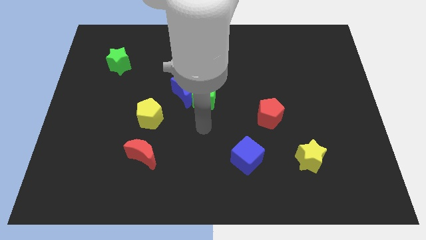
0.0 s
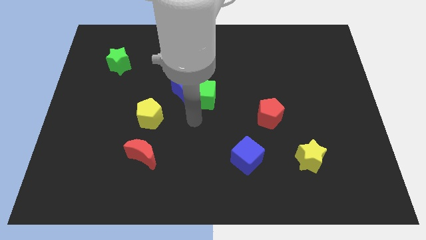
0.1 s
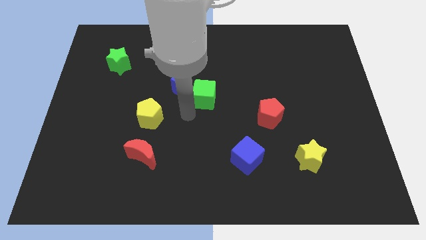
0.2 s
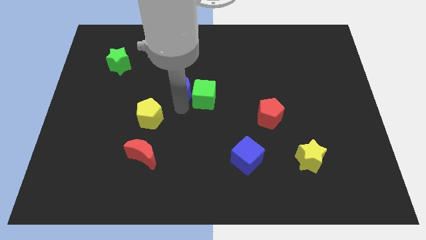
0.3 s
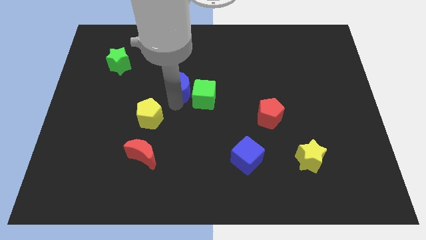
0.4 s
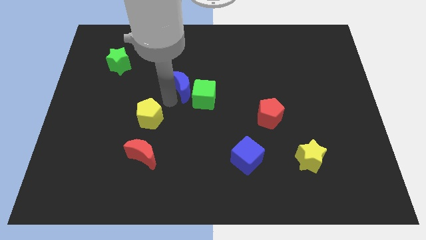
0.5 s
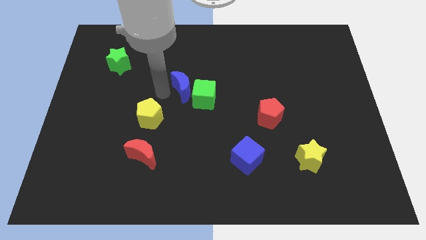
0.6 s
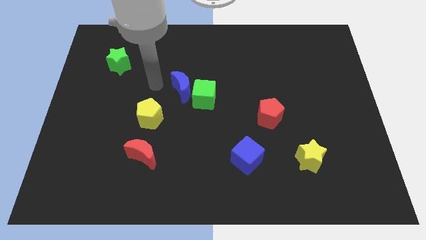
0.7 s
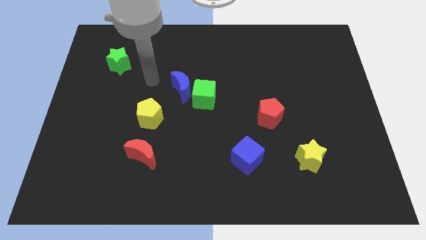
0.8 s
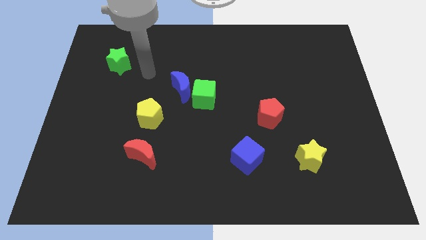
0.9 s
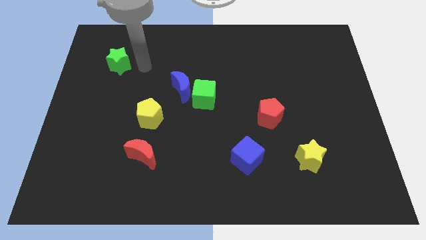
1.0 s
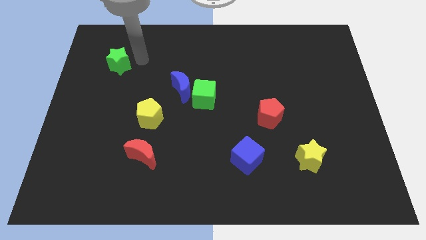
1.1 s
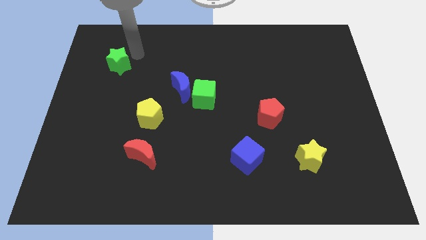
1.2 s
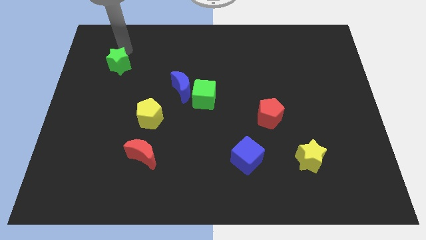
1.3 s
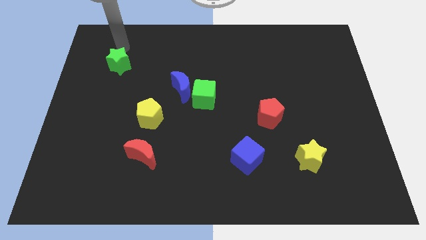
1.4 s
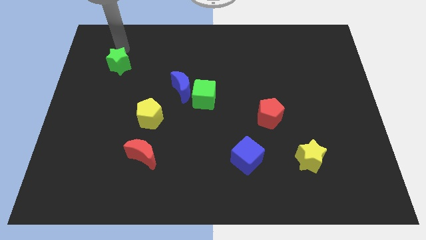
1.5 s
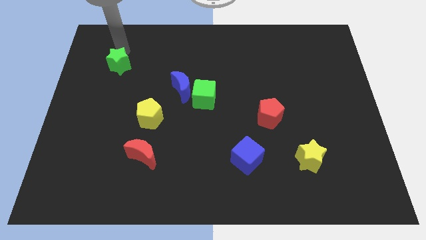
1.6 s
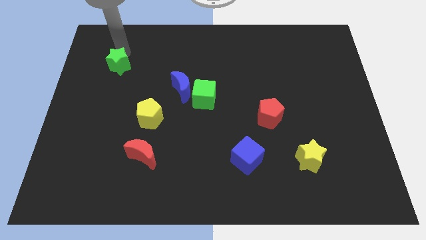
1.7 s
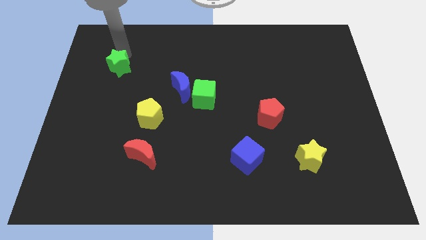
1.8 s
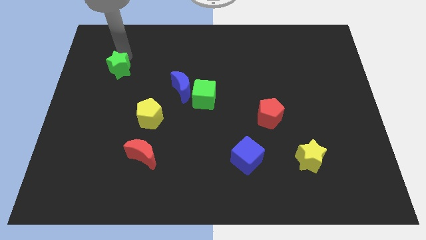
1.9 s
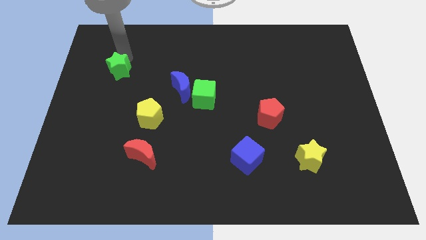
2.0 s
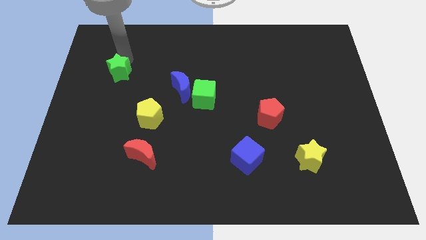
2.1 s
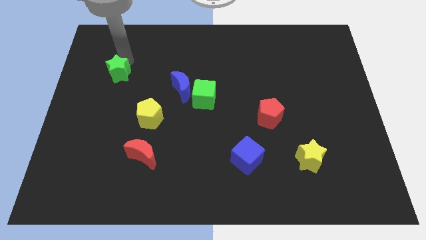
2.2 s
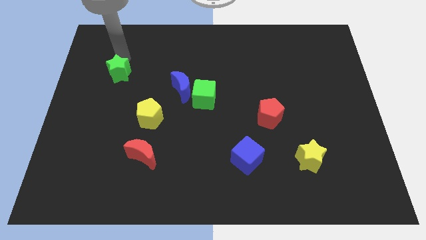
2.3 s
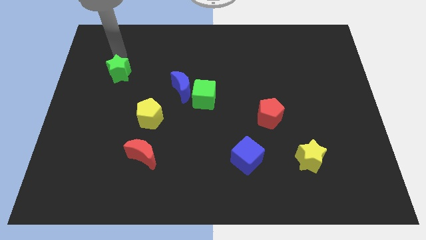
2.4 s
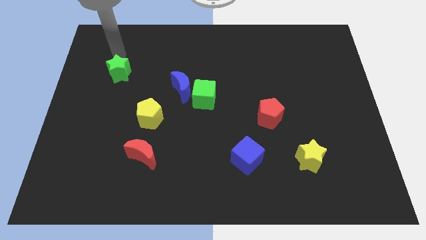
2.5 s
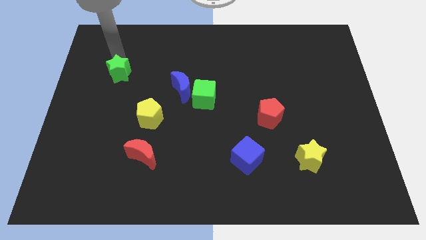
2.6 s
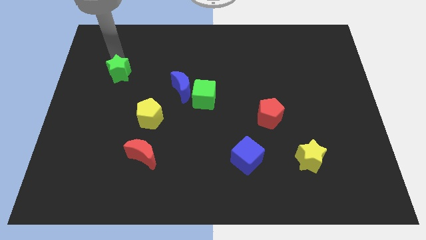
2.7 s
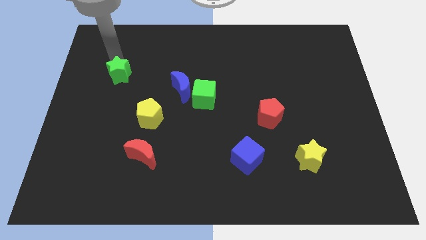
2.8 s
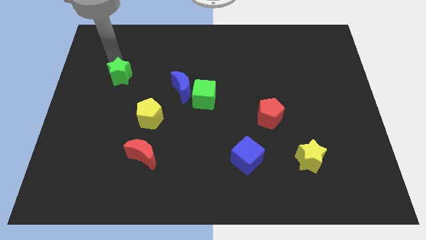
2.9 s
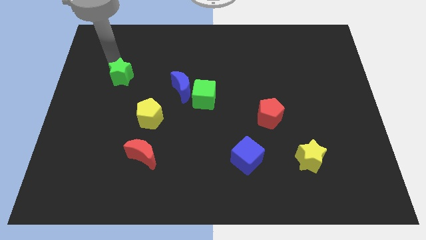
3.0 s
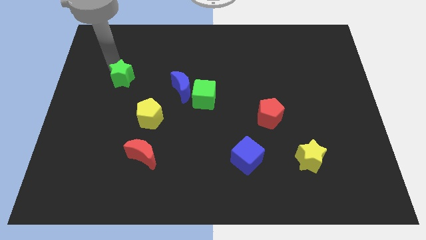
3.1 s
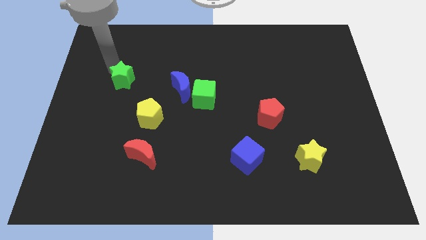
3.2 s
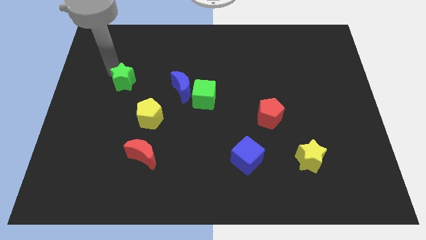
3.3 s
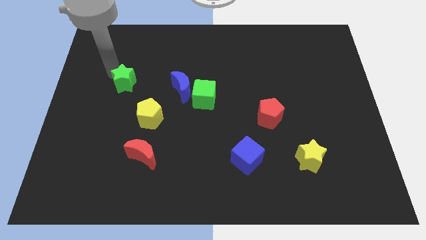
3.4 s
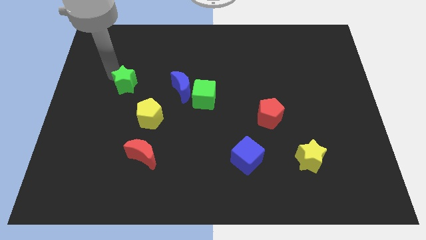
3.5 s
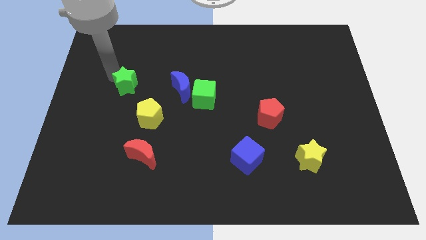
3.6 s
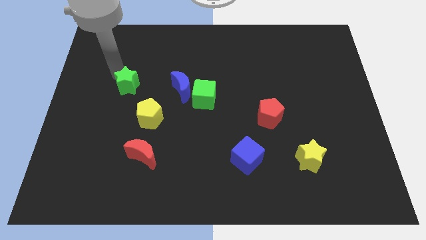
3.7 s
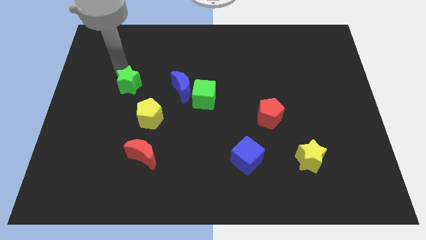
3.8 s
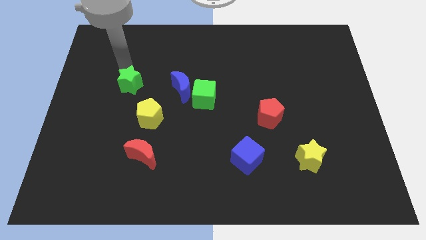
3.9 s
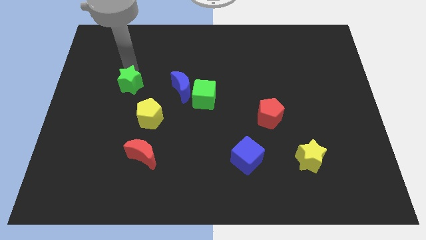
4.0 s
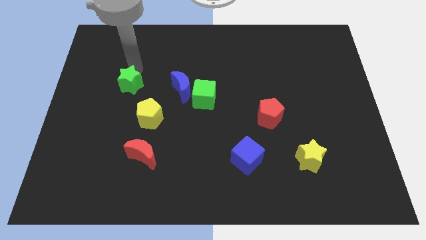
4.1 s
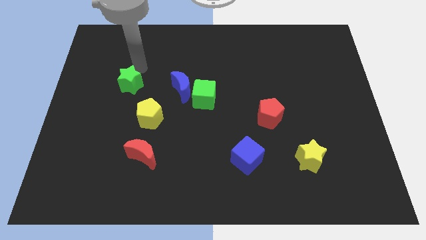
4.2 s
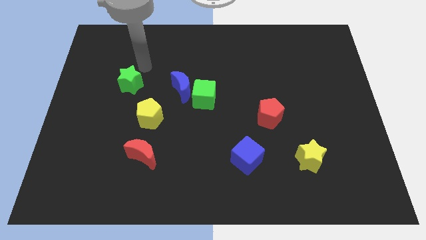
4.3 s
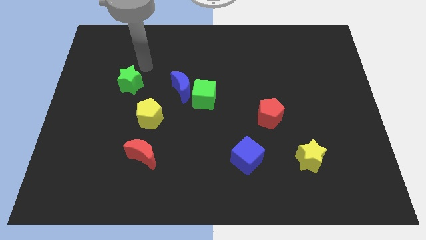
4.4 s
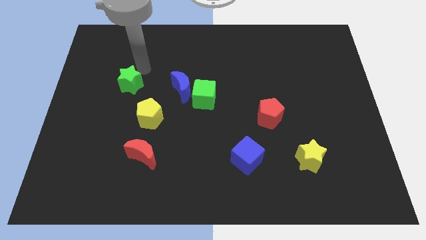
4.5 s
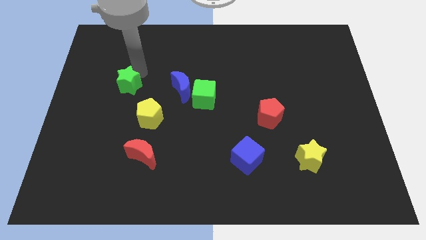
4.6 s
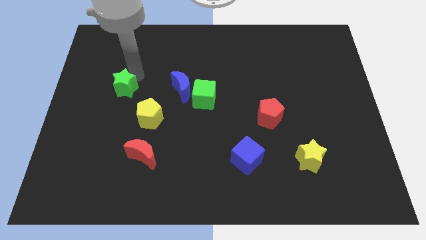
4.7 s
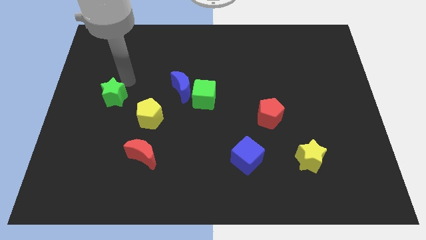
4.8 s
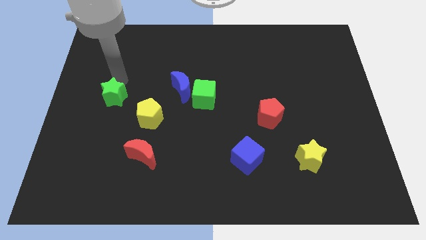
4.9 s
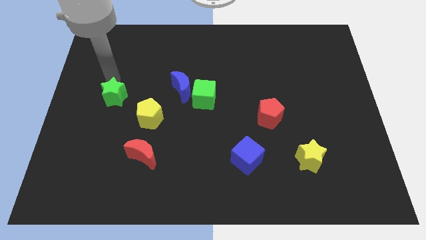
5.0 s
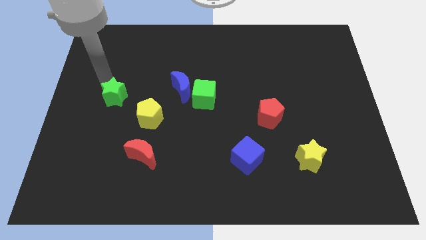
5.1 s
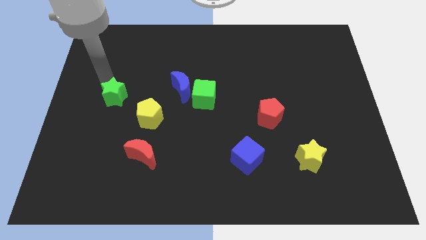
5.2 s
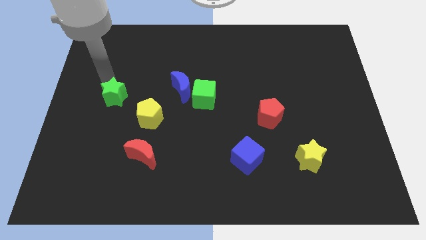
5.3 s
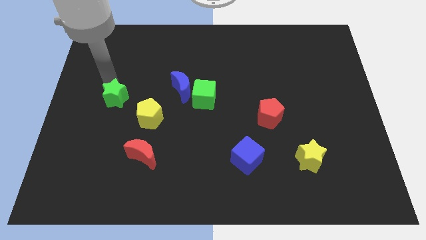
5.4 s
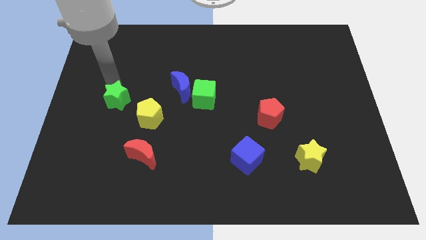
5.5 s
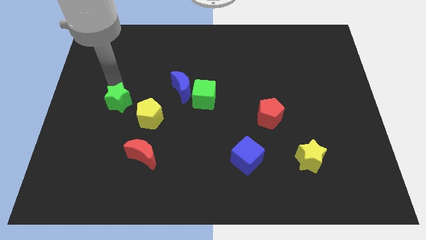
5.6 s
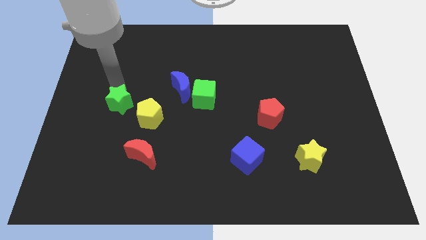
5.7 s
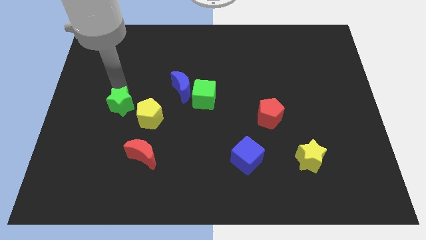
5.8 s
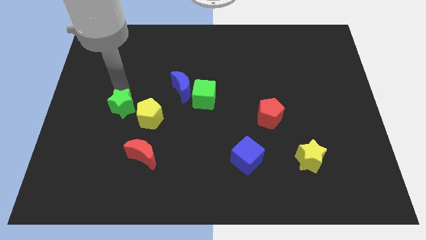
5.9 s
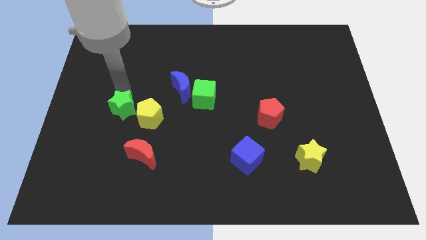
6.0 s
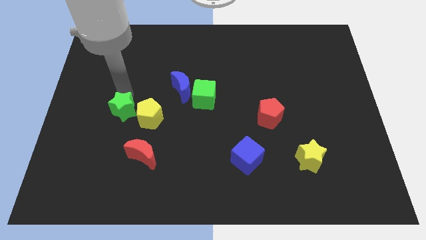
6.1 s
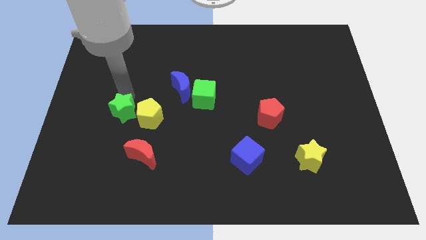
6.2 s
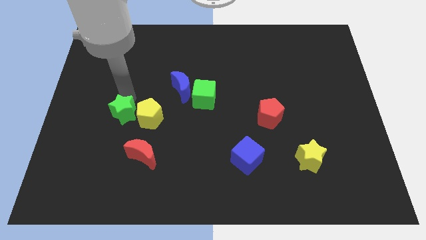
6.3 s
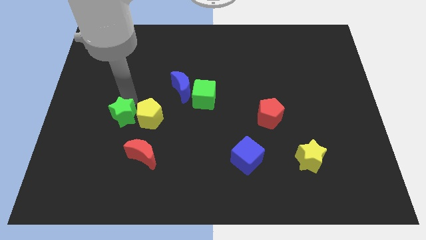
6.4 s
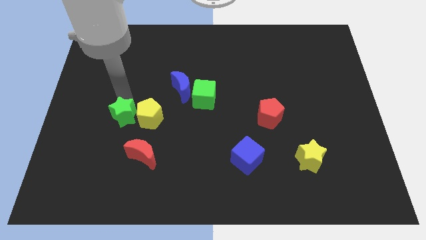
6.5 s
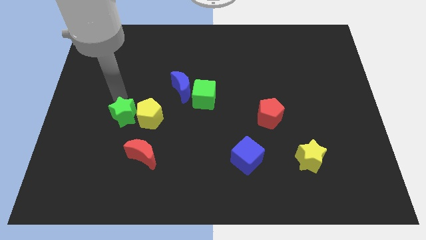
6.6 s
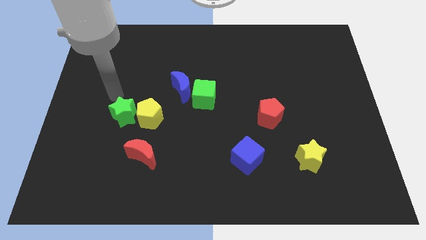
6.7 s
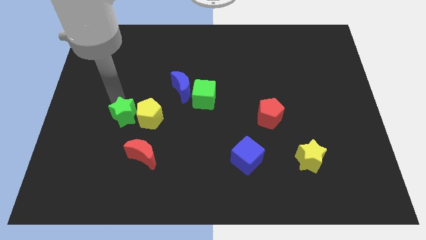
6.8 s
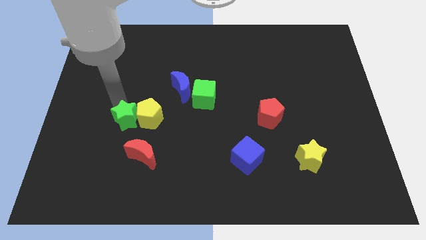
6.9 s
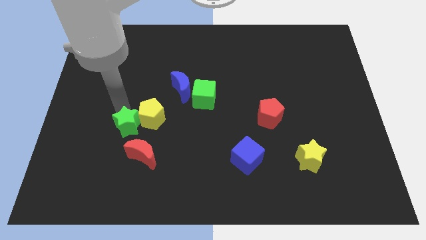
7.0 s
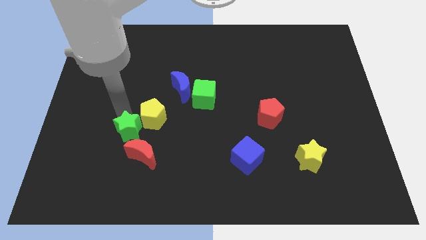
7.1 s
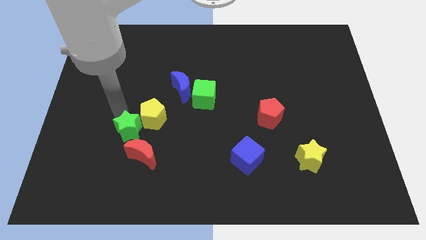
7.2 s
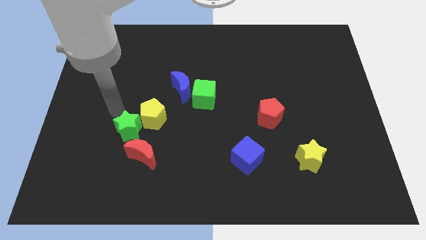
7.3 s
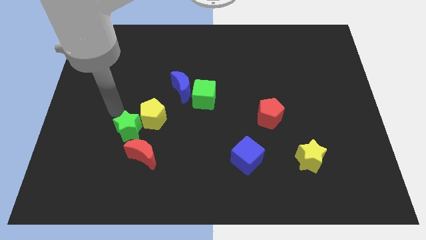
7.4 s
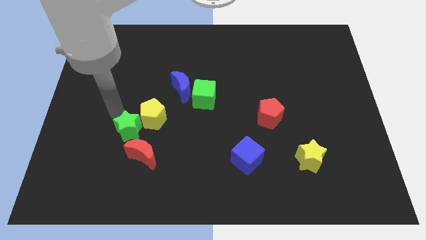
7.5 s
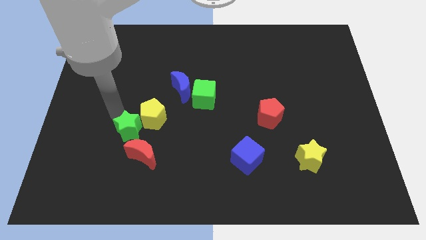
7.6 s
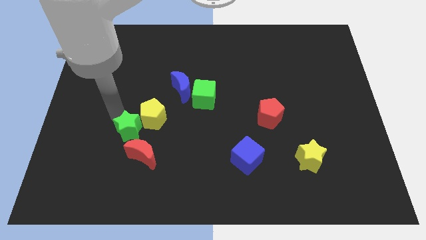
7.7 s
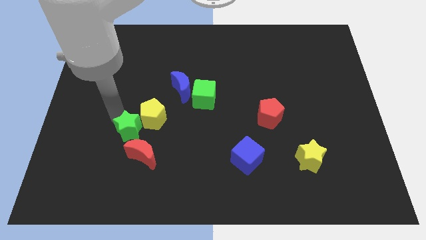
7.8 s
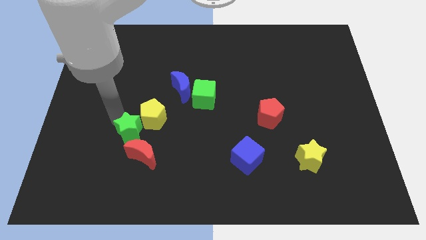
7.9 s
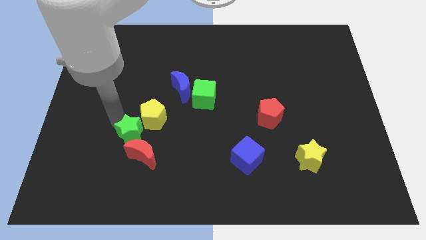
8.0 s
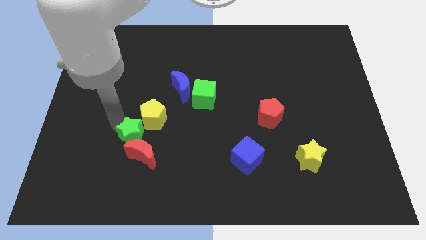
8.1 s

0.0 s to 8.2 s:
move the green star towards the red moon
